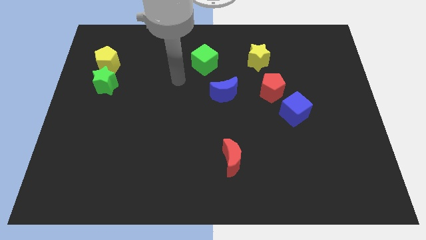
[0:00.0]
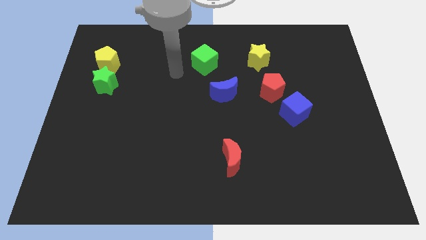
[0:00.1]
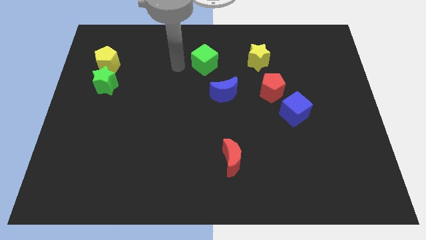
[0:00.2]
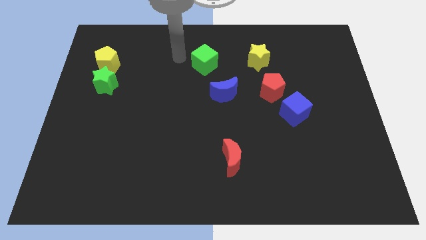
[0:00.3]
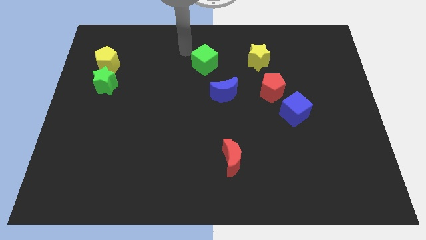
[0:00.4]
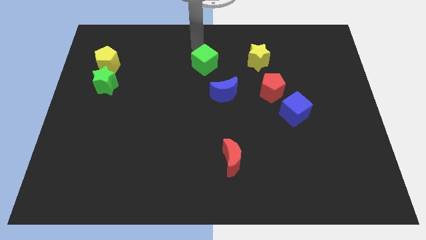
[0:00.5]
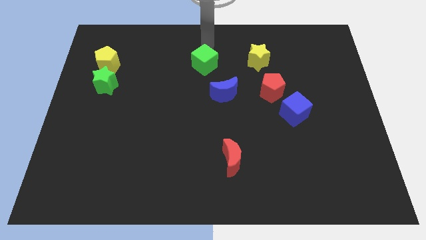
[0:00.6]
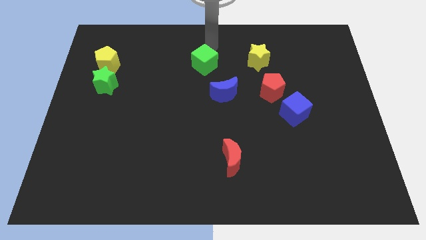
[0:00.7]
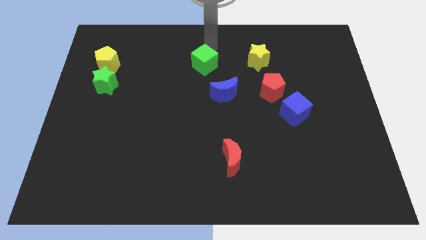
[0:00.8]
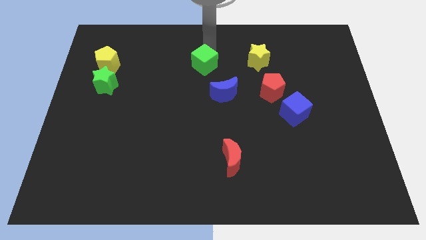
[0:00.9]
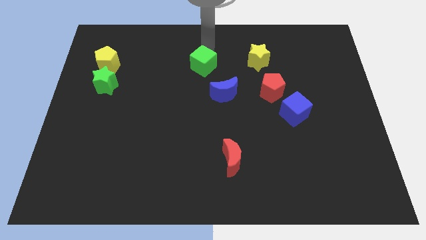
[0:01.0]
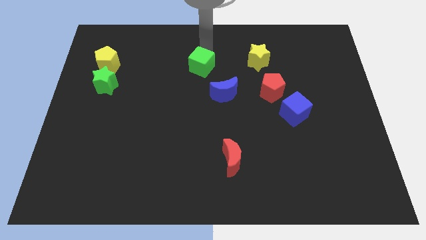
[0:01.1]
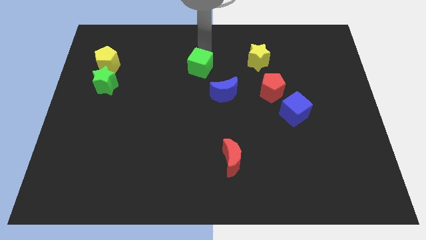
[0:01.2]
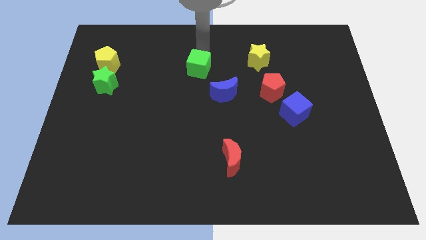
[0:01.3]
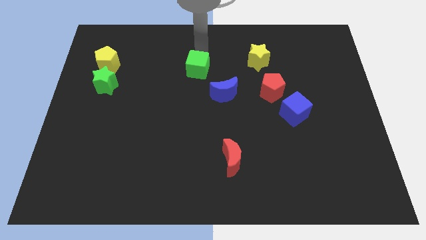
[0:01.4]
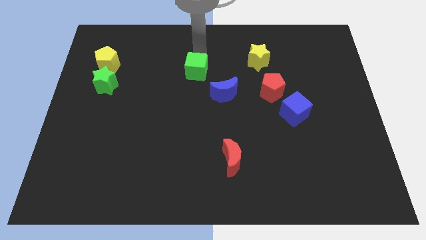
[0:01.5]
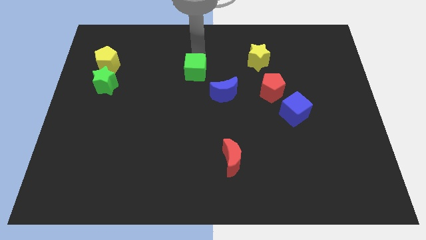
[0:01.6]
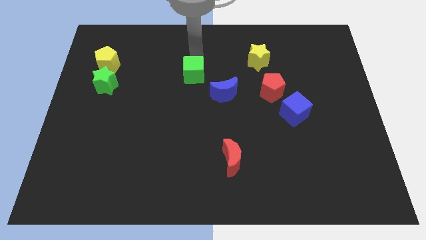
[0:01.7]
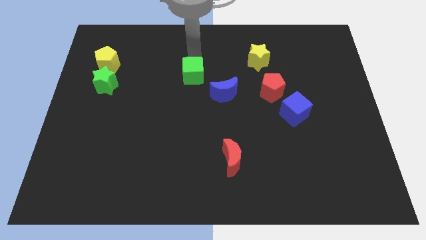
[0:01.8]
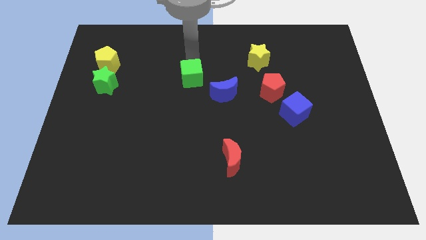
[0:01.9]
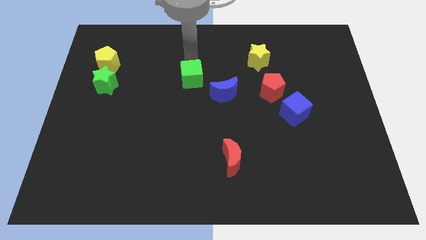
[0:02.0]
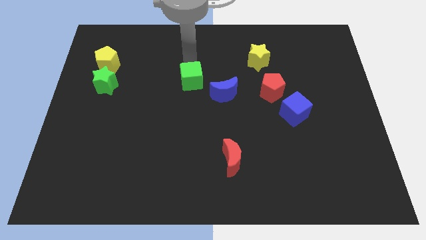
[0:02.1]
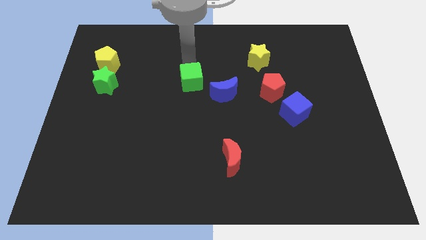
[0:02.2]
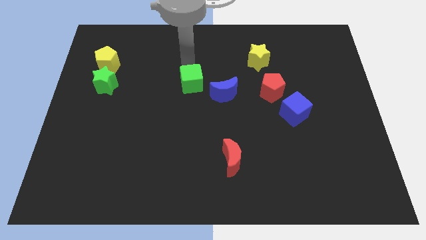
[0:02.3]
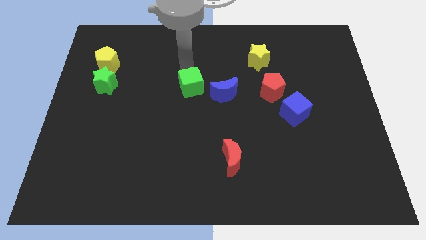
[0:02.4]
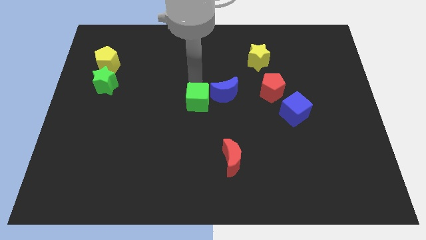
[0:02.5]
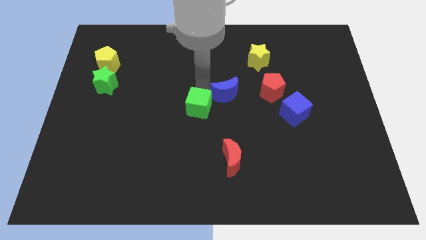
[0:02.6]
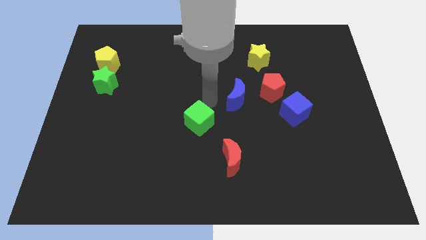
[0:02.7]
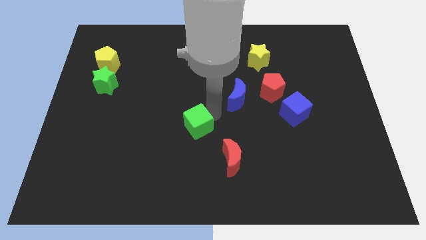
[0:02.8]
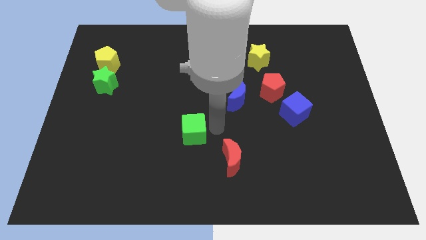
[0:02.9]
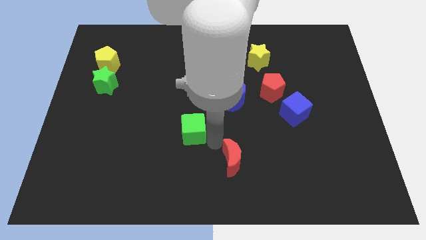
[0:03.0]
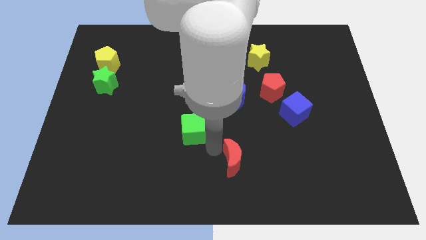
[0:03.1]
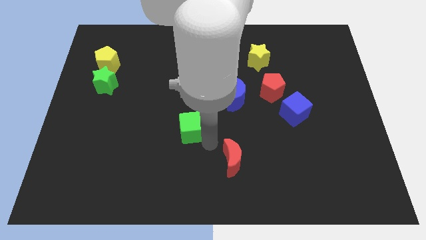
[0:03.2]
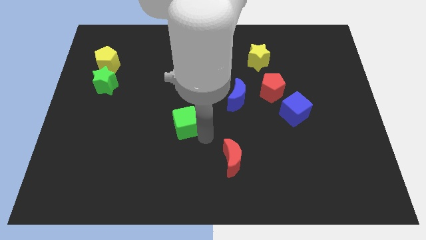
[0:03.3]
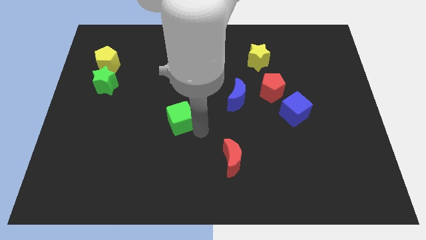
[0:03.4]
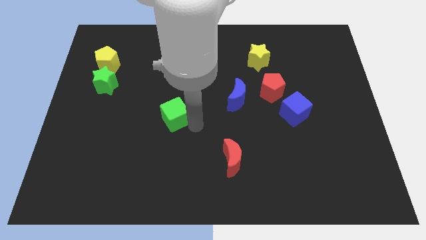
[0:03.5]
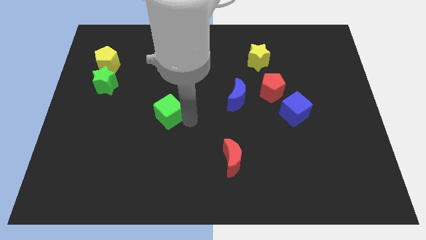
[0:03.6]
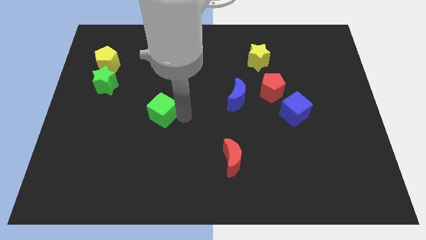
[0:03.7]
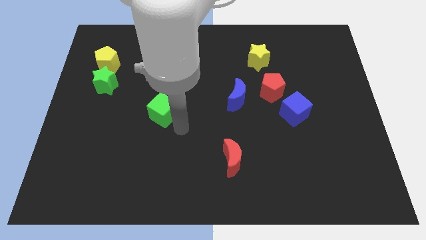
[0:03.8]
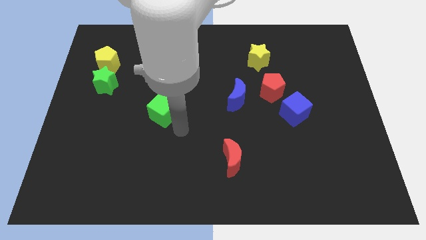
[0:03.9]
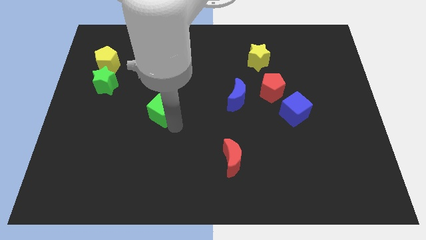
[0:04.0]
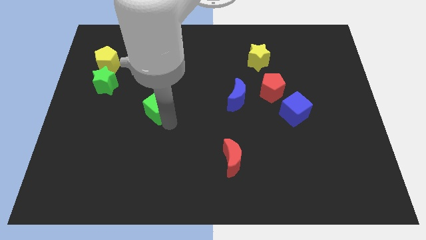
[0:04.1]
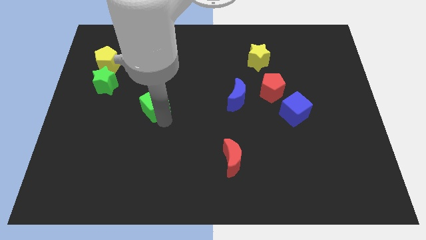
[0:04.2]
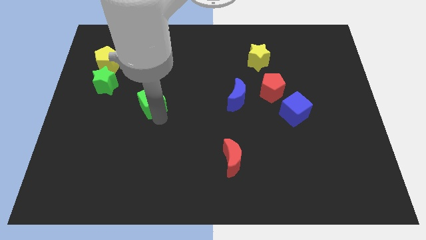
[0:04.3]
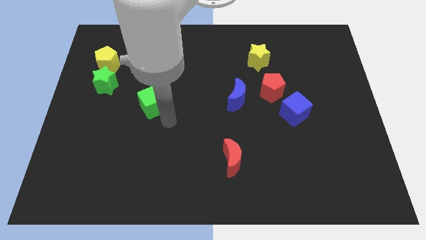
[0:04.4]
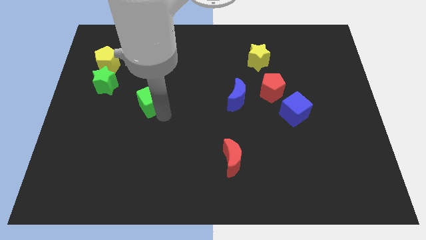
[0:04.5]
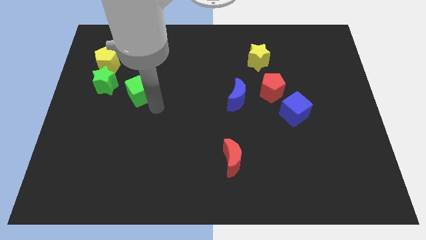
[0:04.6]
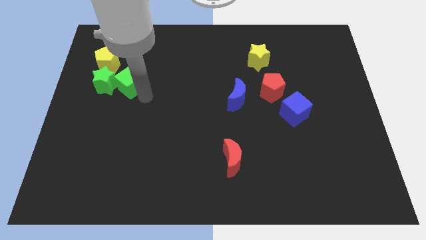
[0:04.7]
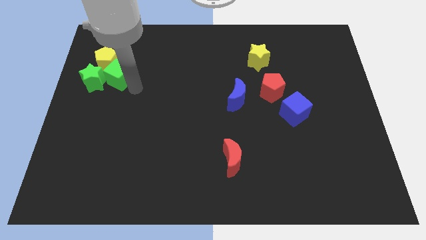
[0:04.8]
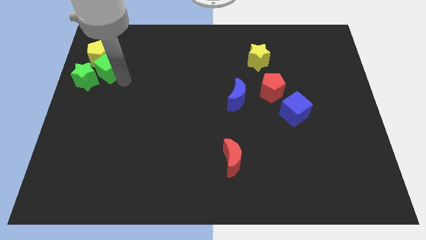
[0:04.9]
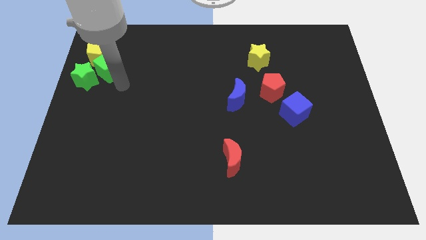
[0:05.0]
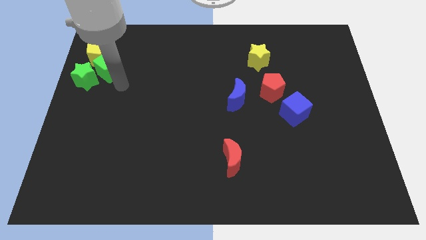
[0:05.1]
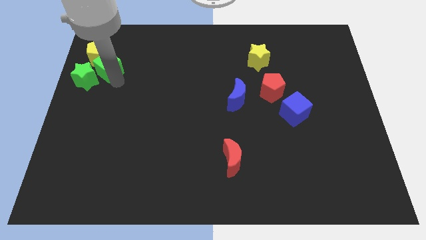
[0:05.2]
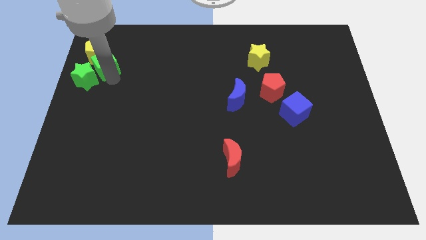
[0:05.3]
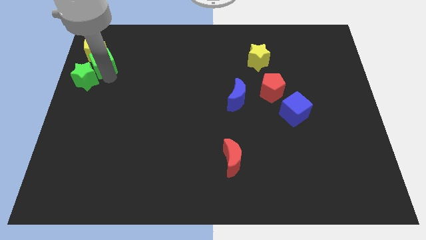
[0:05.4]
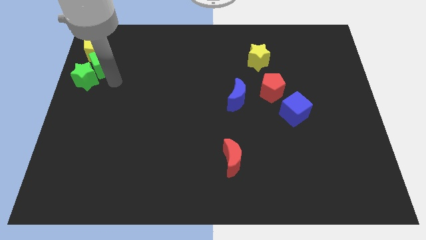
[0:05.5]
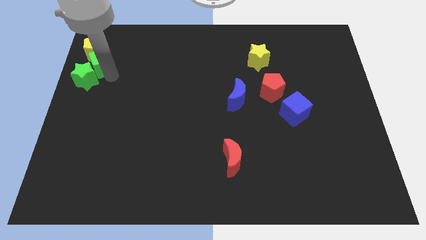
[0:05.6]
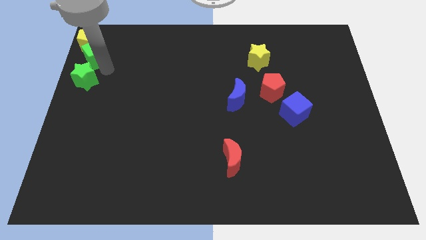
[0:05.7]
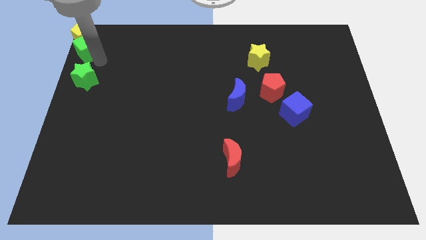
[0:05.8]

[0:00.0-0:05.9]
push the green cube to the upper left corner
